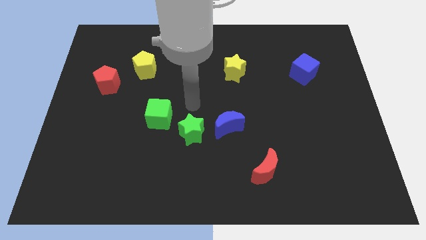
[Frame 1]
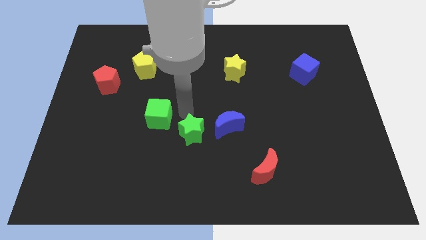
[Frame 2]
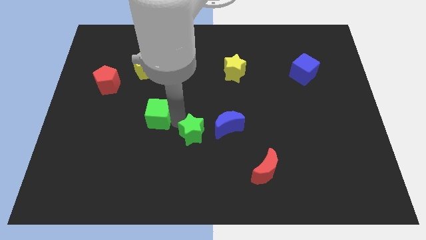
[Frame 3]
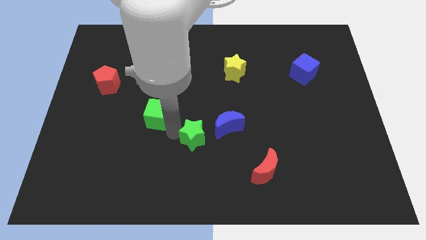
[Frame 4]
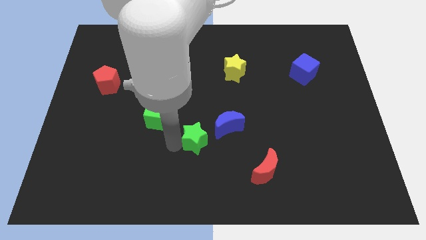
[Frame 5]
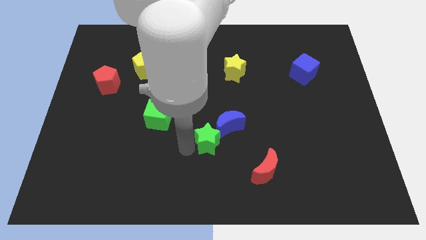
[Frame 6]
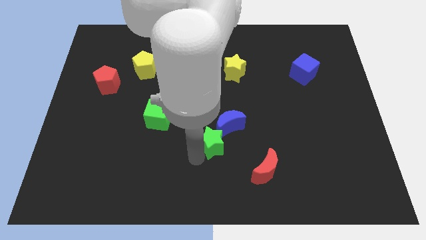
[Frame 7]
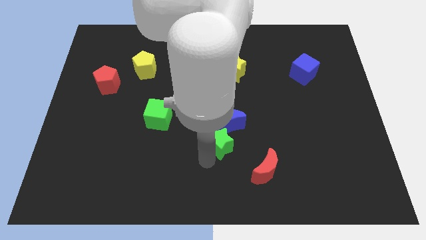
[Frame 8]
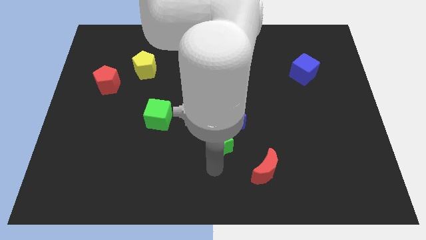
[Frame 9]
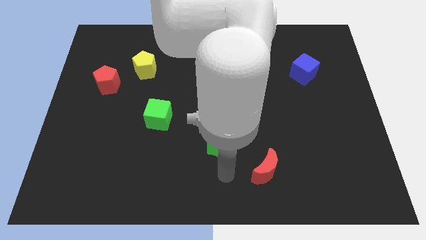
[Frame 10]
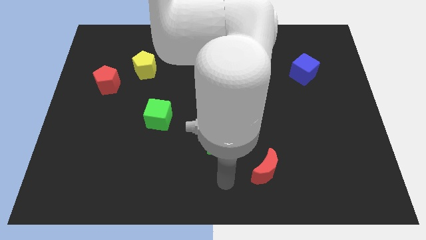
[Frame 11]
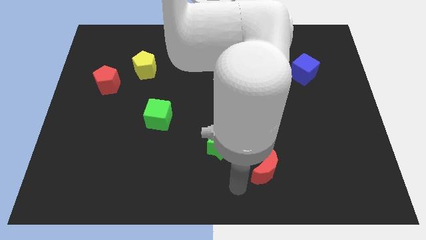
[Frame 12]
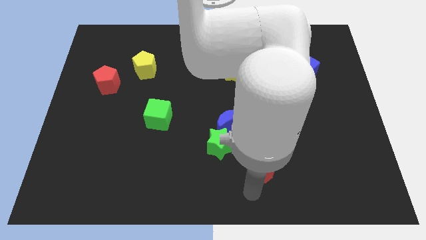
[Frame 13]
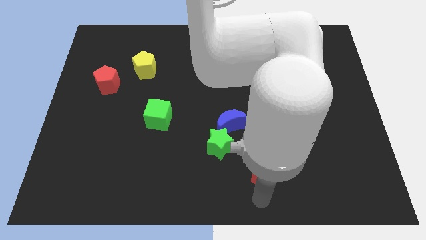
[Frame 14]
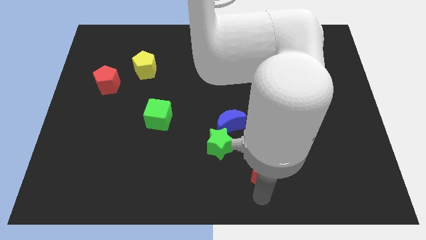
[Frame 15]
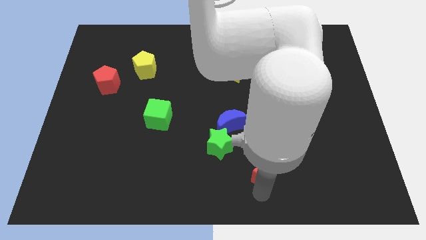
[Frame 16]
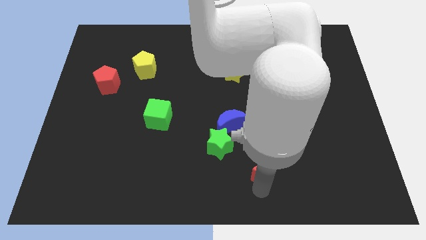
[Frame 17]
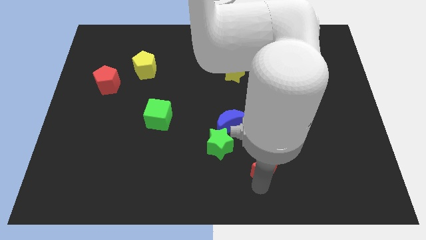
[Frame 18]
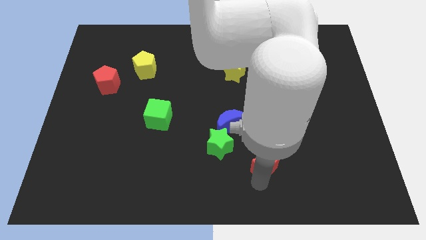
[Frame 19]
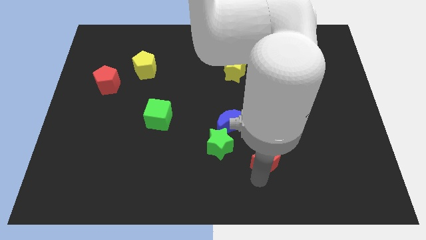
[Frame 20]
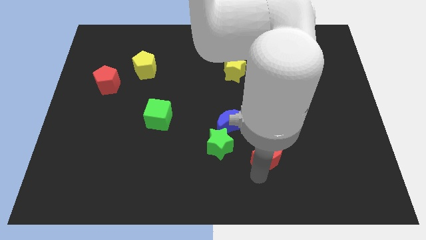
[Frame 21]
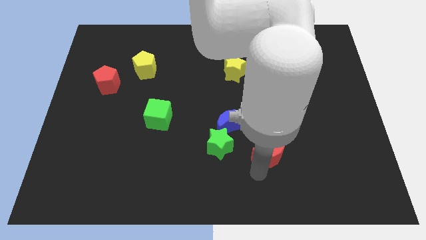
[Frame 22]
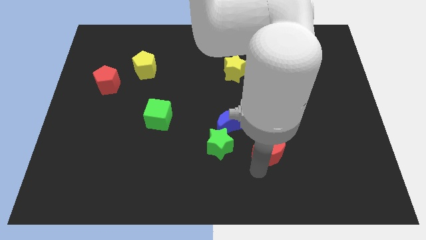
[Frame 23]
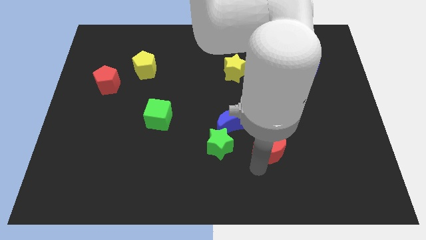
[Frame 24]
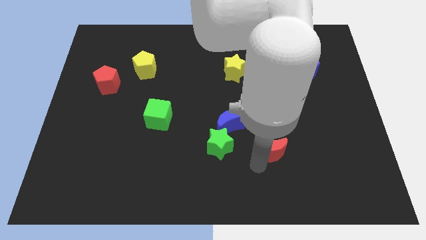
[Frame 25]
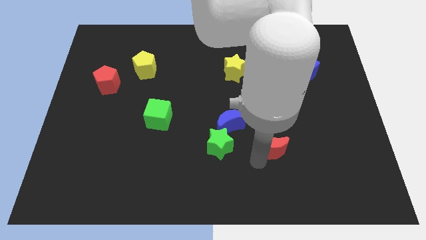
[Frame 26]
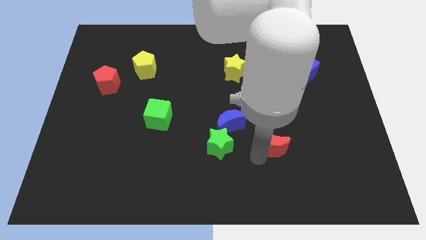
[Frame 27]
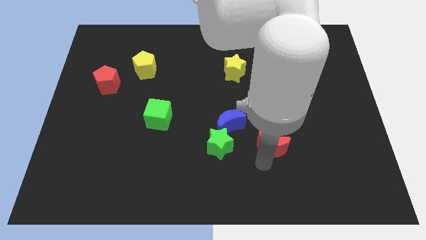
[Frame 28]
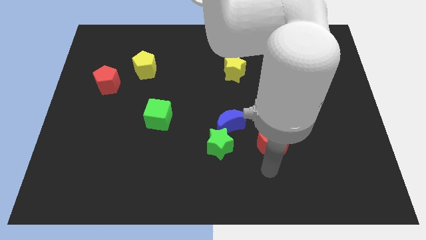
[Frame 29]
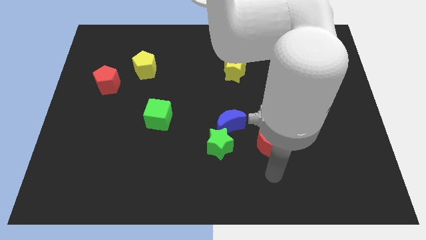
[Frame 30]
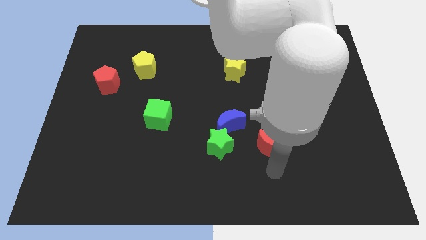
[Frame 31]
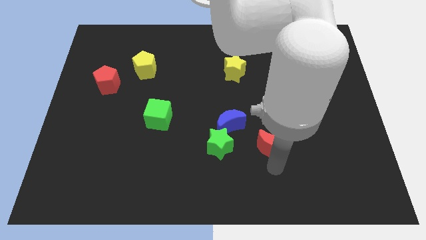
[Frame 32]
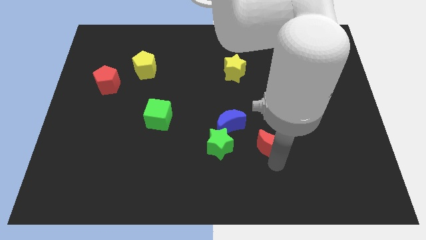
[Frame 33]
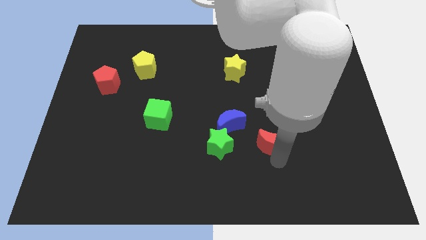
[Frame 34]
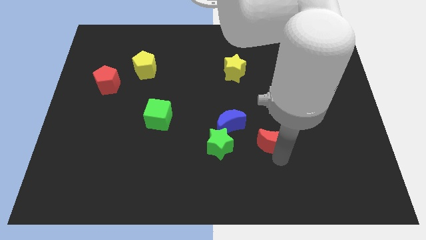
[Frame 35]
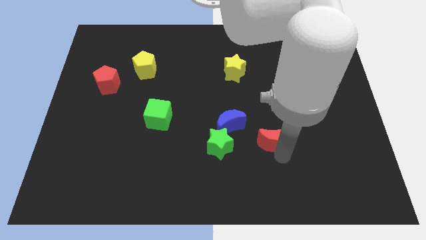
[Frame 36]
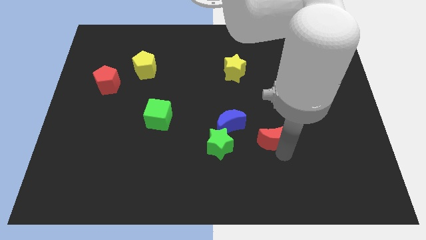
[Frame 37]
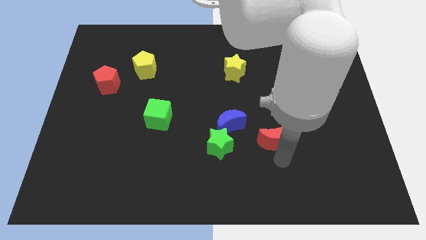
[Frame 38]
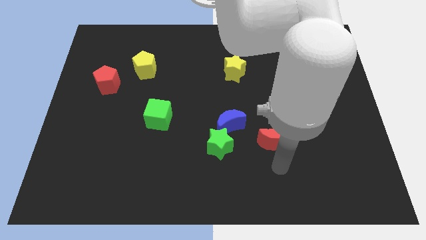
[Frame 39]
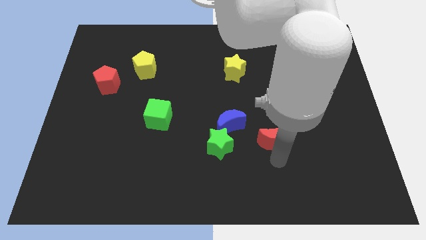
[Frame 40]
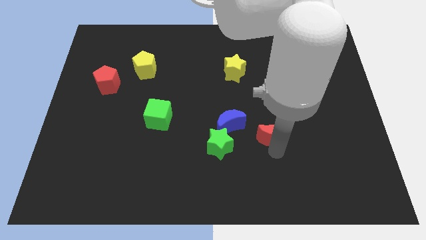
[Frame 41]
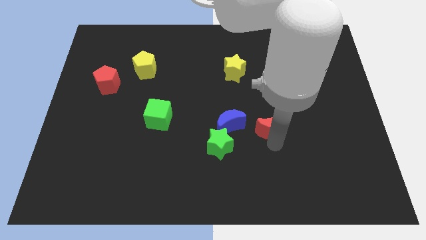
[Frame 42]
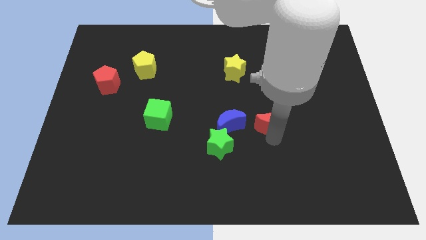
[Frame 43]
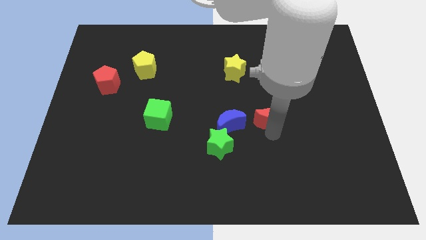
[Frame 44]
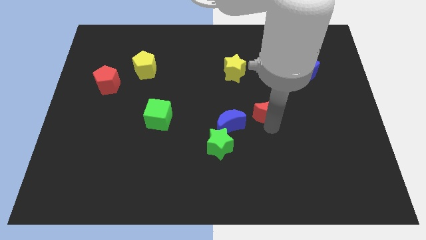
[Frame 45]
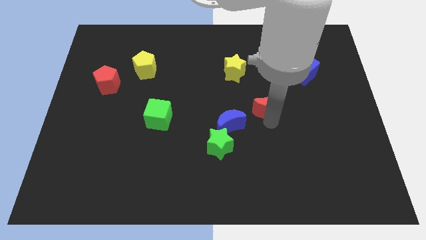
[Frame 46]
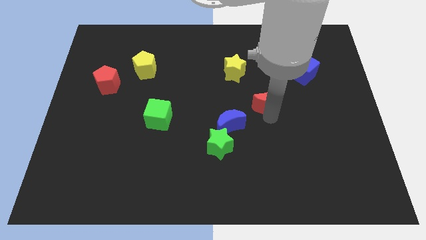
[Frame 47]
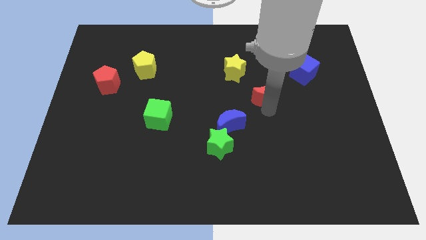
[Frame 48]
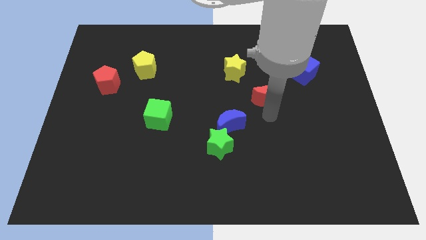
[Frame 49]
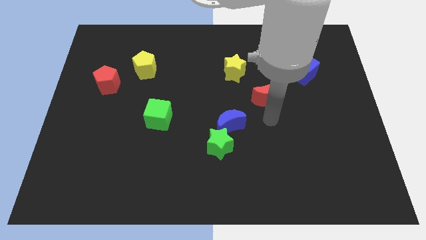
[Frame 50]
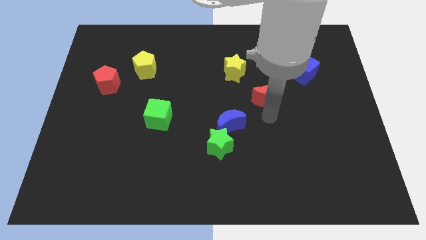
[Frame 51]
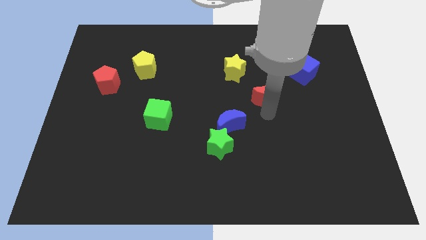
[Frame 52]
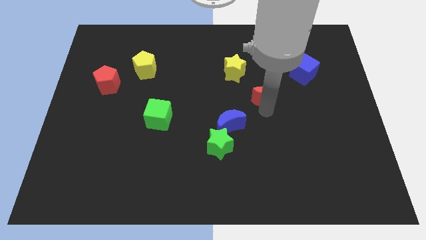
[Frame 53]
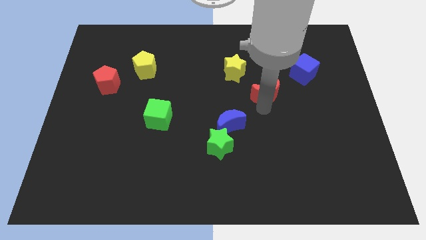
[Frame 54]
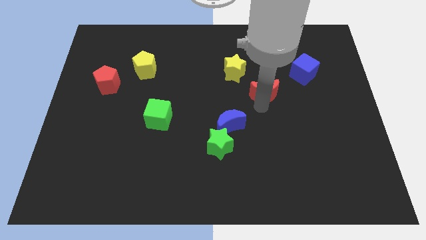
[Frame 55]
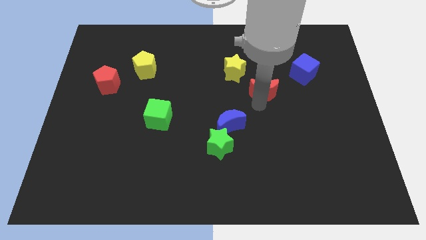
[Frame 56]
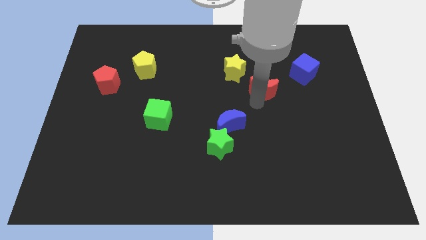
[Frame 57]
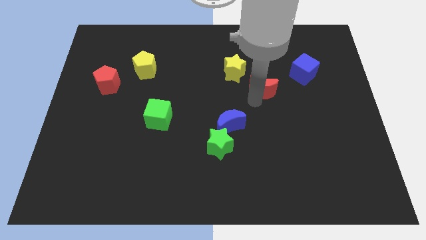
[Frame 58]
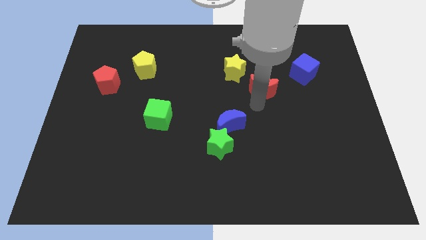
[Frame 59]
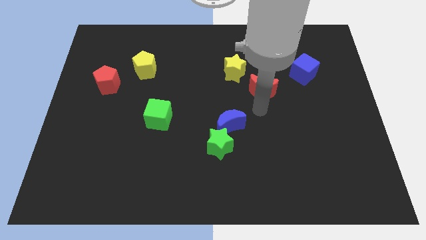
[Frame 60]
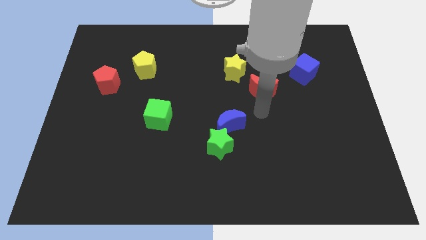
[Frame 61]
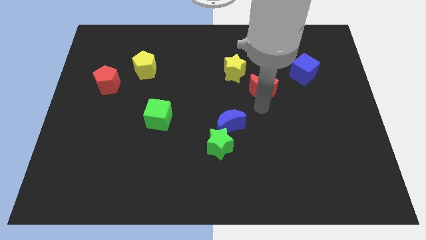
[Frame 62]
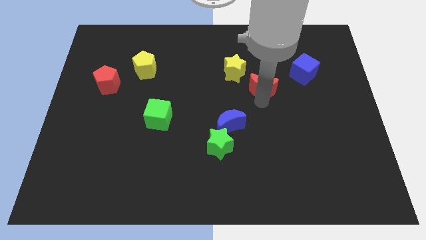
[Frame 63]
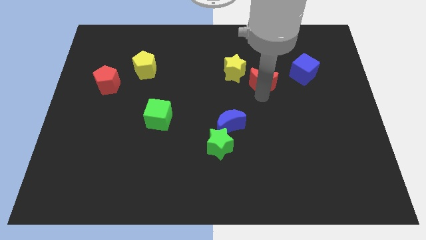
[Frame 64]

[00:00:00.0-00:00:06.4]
slide the red moon just left of the blue cube
